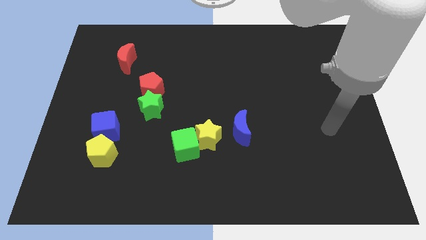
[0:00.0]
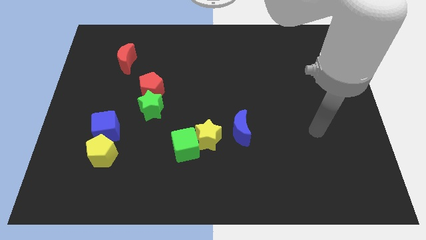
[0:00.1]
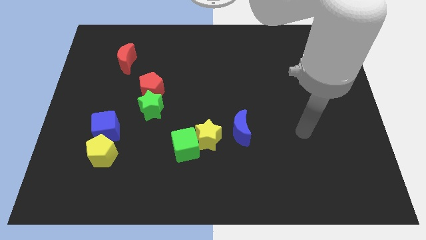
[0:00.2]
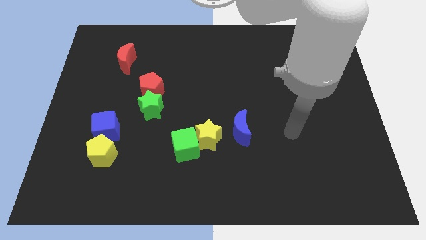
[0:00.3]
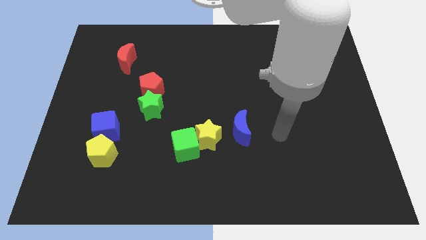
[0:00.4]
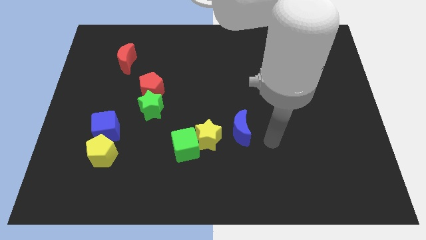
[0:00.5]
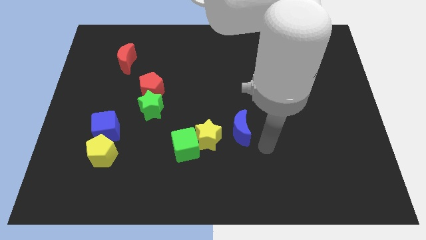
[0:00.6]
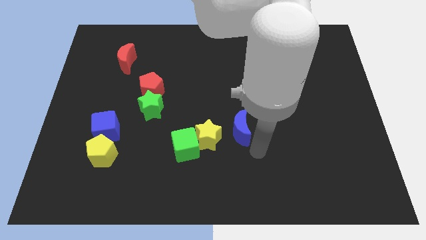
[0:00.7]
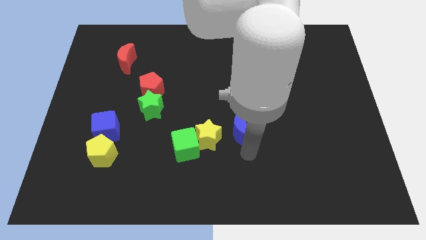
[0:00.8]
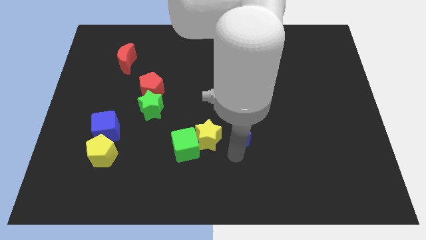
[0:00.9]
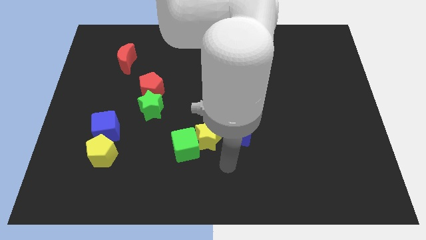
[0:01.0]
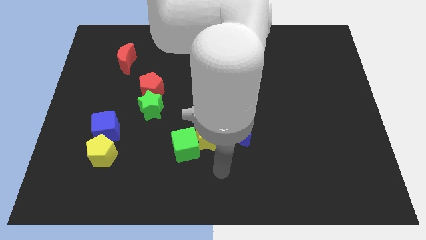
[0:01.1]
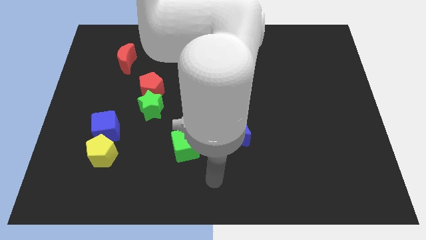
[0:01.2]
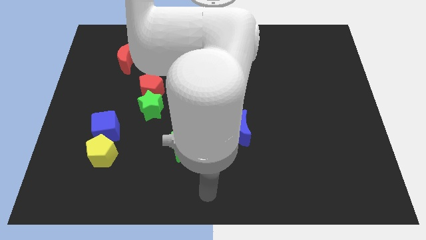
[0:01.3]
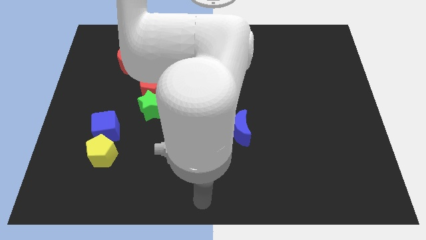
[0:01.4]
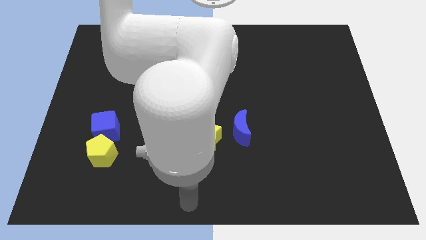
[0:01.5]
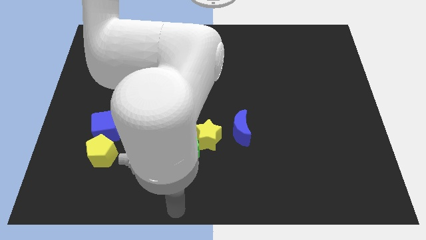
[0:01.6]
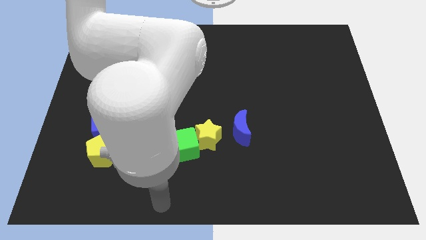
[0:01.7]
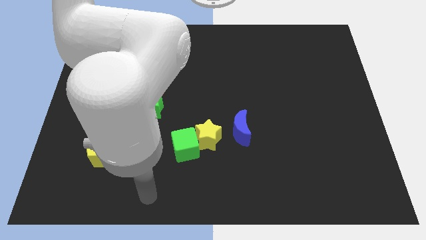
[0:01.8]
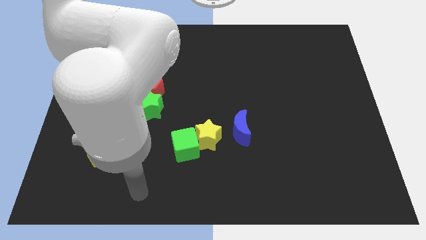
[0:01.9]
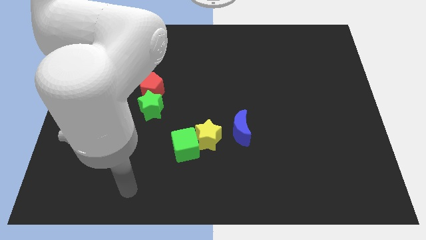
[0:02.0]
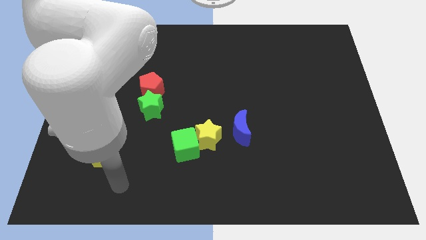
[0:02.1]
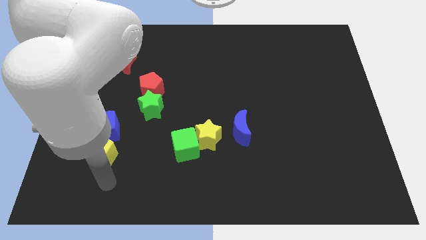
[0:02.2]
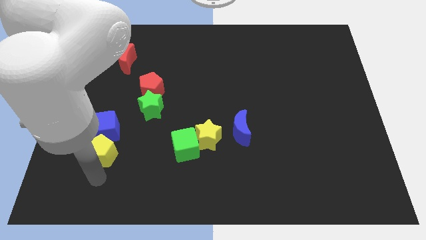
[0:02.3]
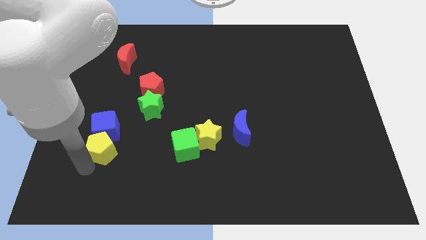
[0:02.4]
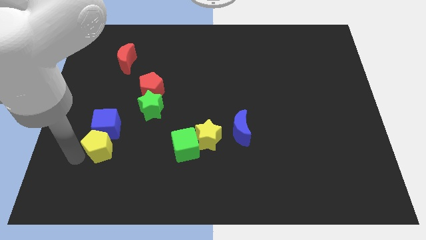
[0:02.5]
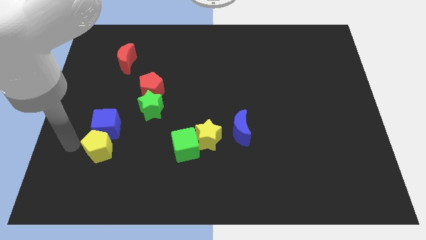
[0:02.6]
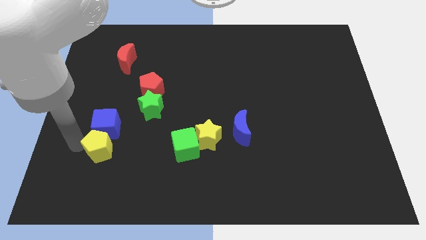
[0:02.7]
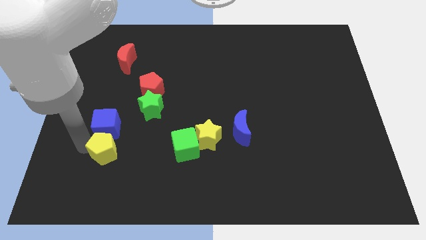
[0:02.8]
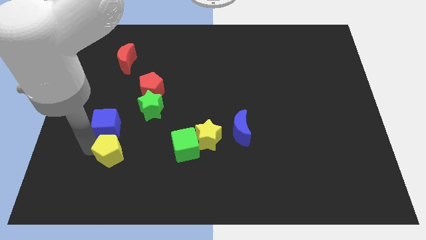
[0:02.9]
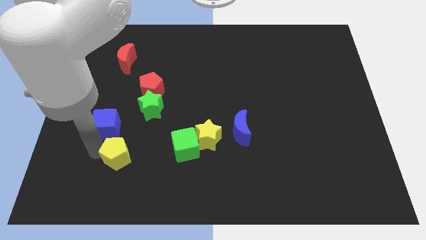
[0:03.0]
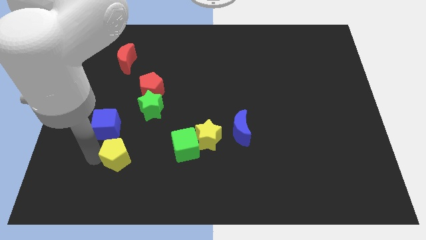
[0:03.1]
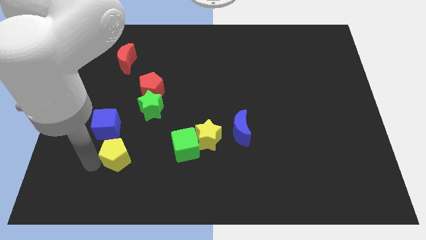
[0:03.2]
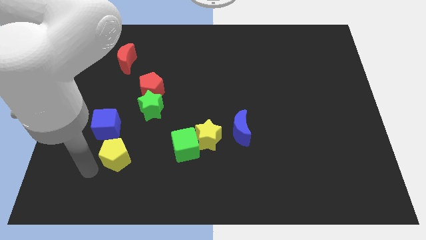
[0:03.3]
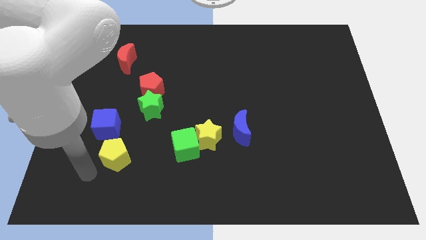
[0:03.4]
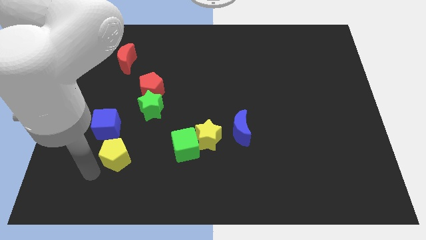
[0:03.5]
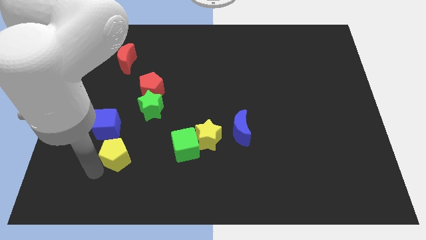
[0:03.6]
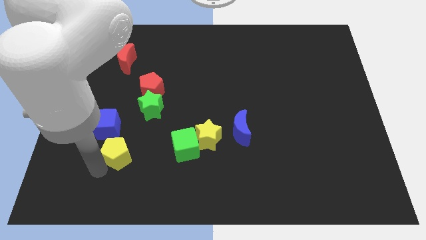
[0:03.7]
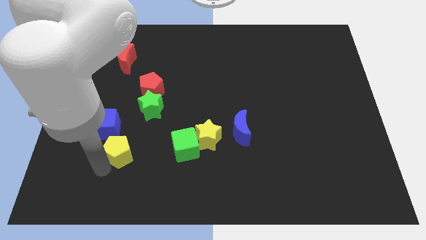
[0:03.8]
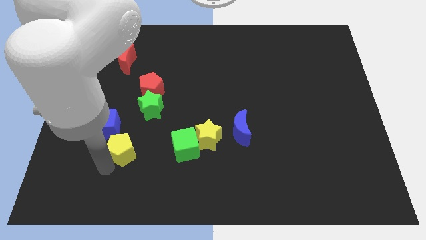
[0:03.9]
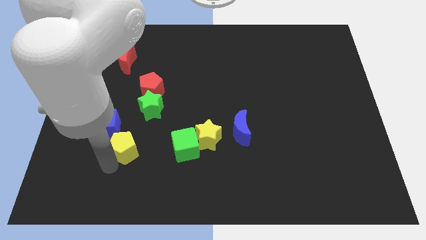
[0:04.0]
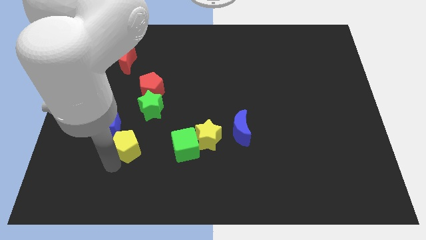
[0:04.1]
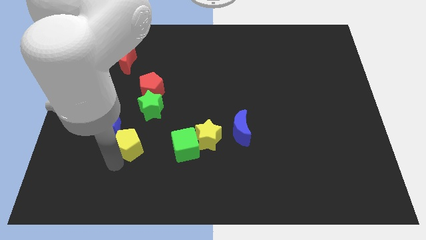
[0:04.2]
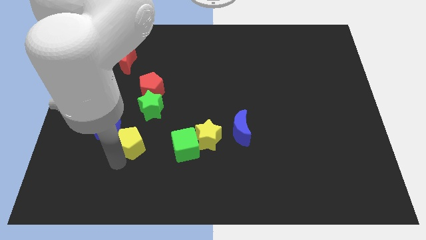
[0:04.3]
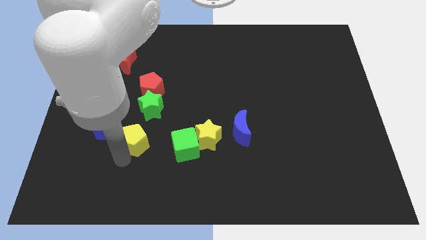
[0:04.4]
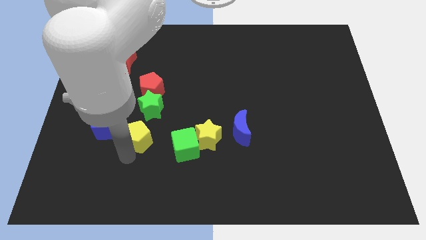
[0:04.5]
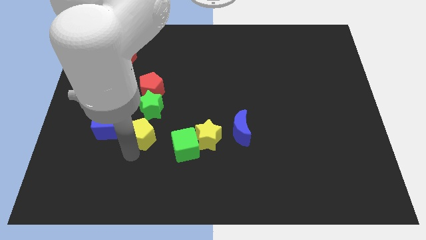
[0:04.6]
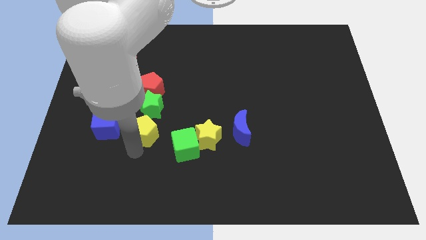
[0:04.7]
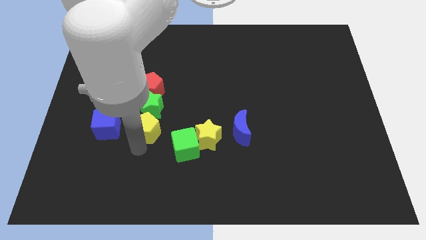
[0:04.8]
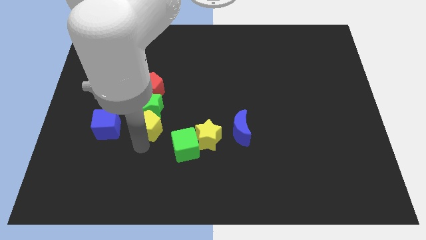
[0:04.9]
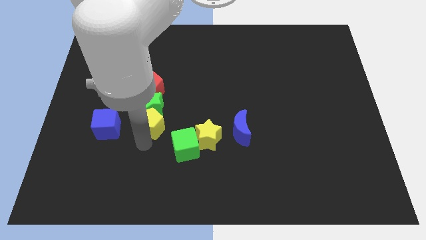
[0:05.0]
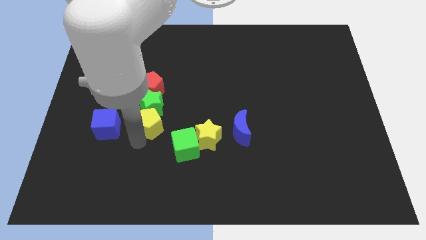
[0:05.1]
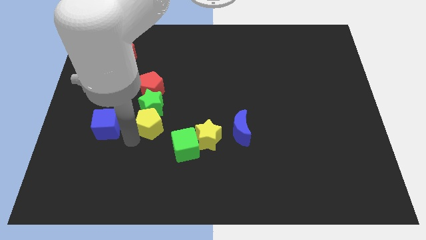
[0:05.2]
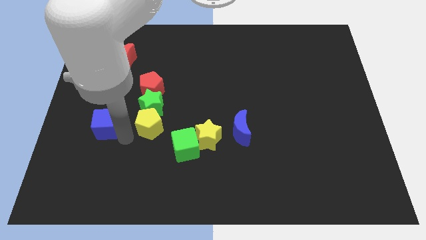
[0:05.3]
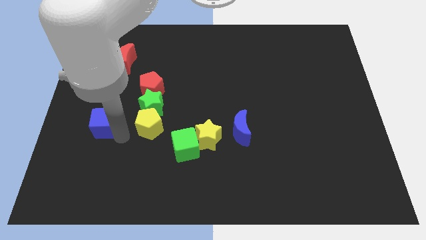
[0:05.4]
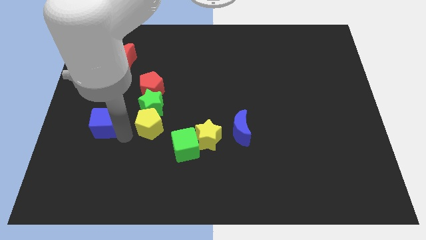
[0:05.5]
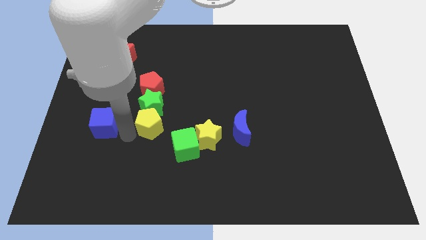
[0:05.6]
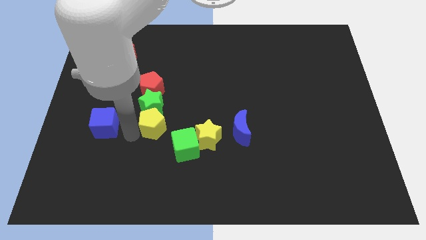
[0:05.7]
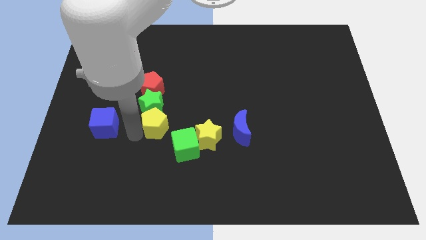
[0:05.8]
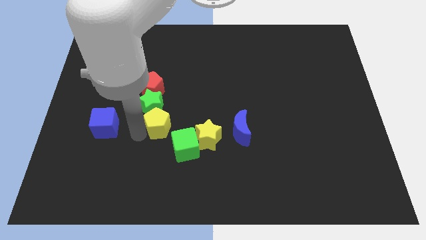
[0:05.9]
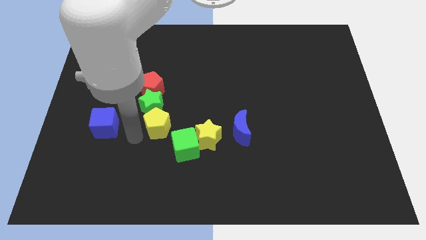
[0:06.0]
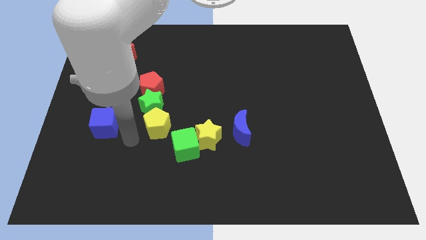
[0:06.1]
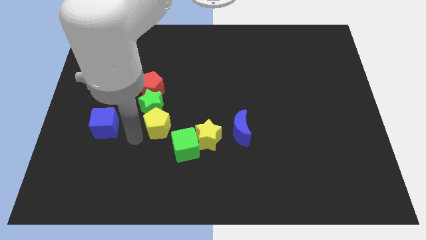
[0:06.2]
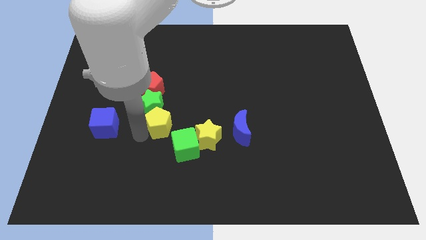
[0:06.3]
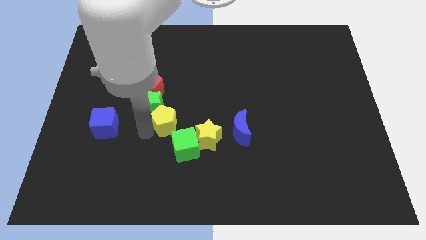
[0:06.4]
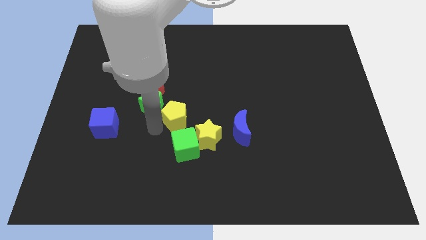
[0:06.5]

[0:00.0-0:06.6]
push the yellow pentagon to the center

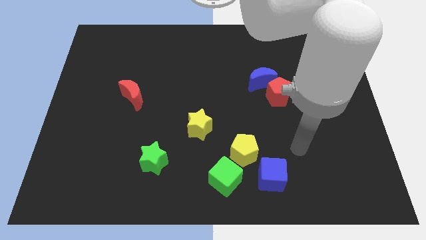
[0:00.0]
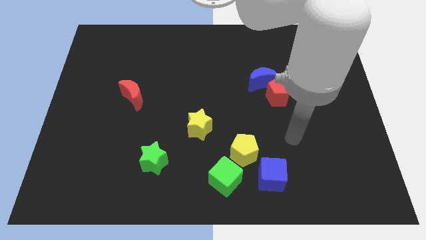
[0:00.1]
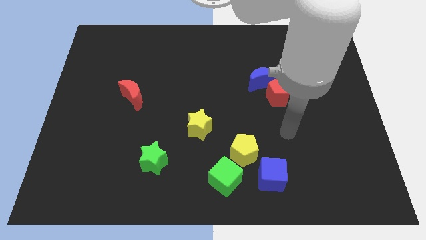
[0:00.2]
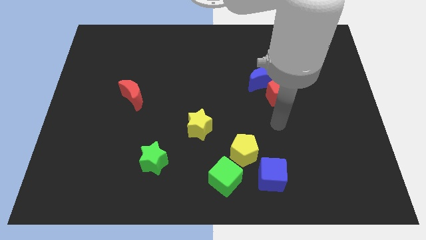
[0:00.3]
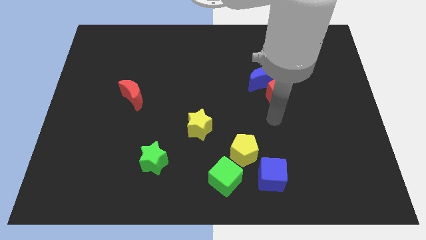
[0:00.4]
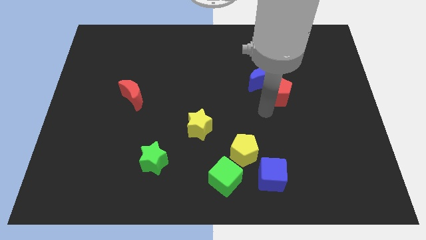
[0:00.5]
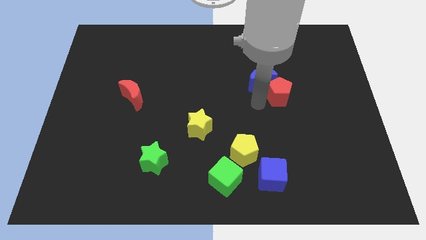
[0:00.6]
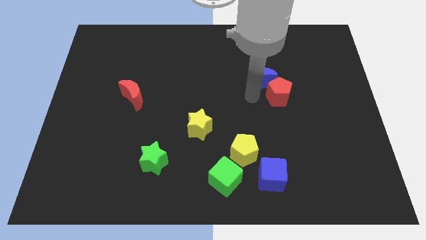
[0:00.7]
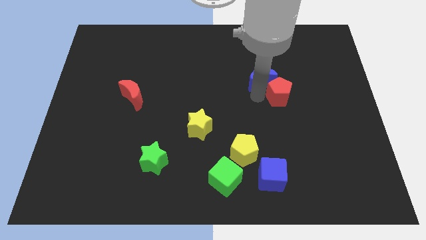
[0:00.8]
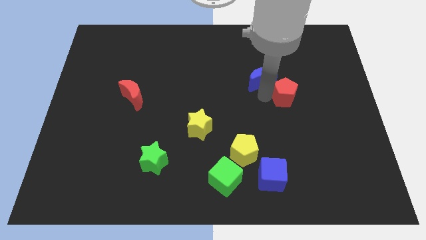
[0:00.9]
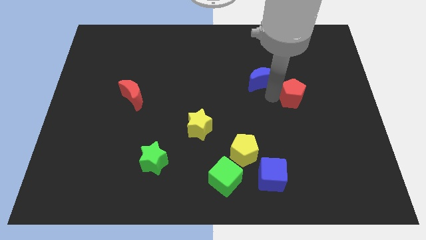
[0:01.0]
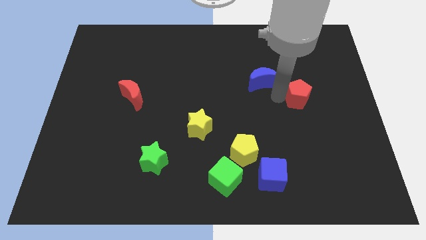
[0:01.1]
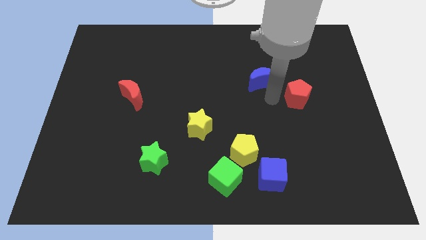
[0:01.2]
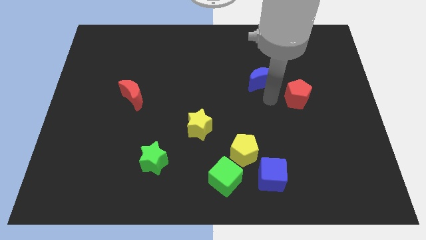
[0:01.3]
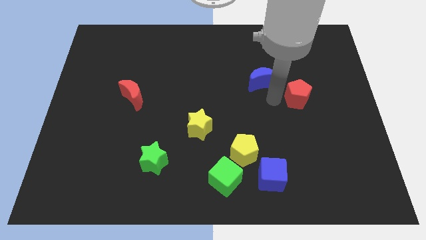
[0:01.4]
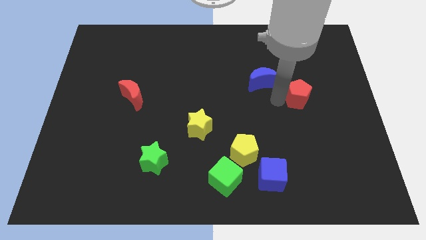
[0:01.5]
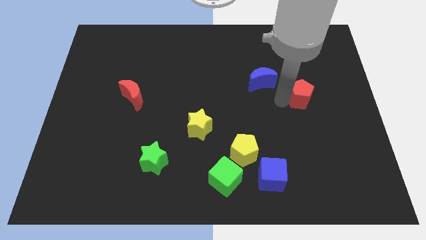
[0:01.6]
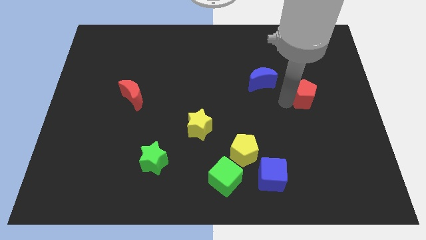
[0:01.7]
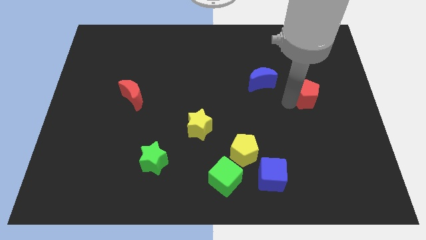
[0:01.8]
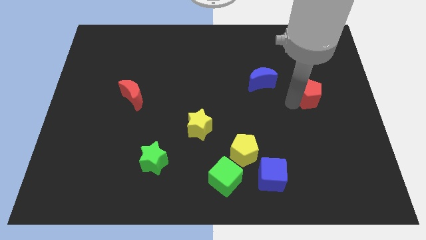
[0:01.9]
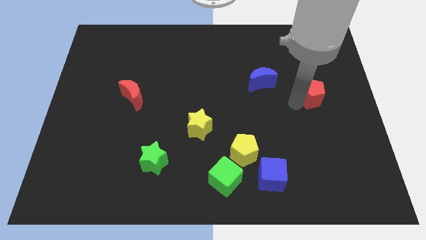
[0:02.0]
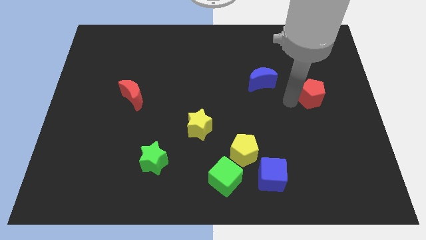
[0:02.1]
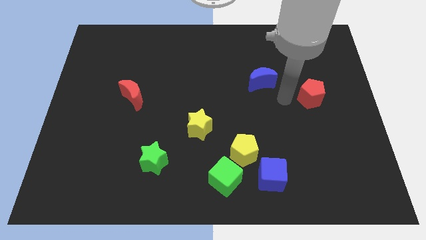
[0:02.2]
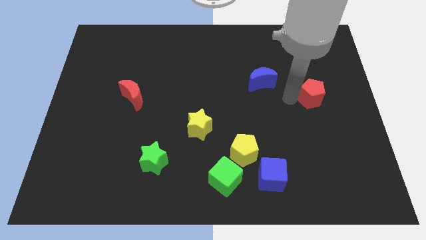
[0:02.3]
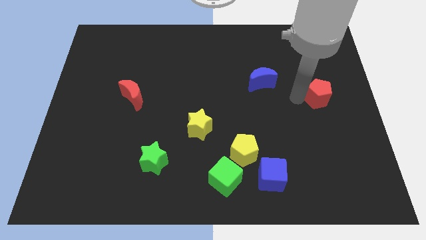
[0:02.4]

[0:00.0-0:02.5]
push the red pentagon to the right side
